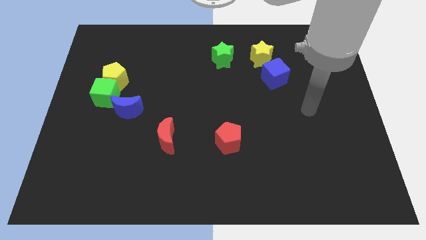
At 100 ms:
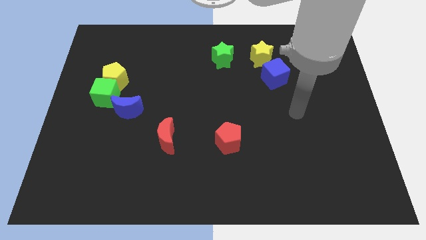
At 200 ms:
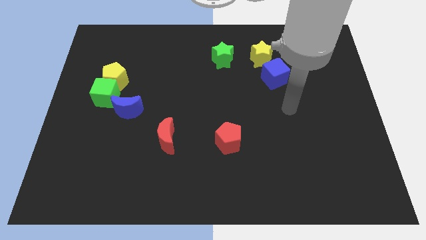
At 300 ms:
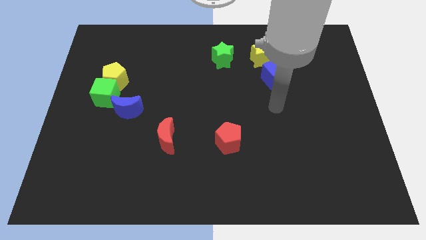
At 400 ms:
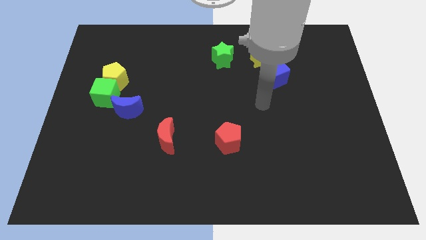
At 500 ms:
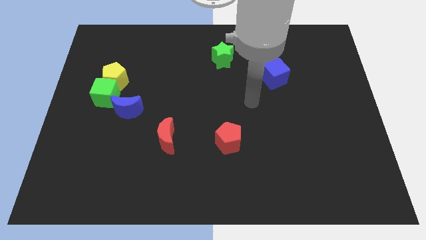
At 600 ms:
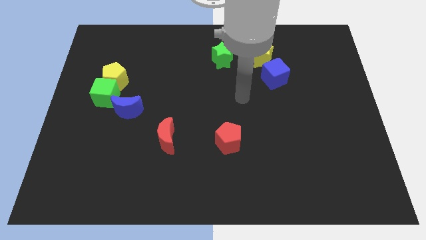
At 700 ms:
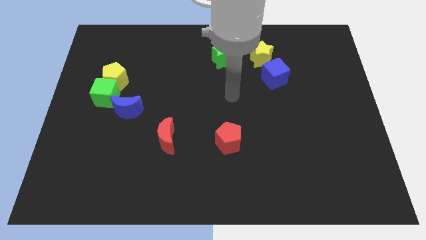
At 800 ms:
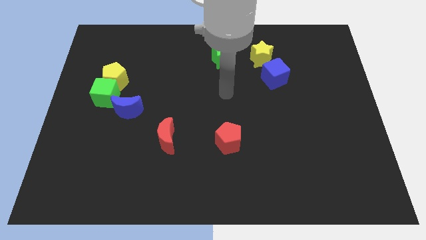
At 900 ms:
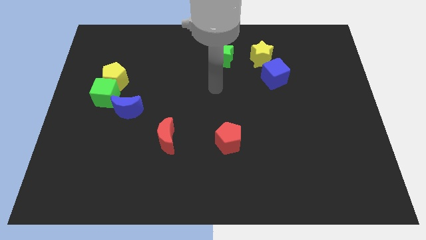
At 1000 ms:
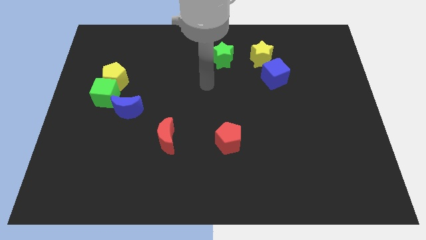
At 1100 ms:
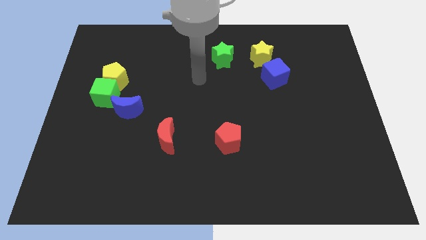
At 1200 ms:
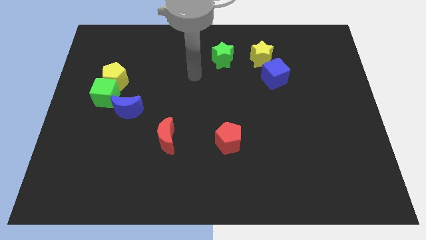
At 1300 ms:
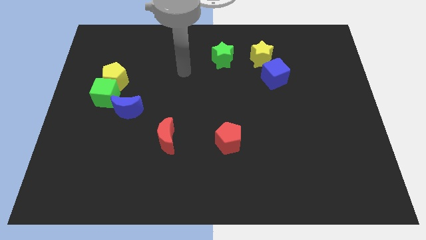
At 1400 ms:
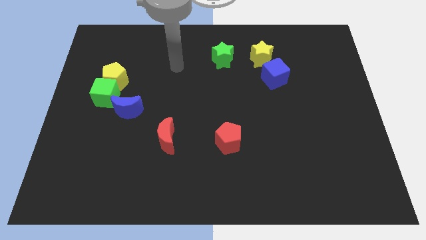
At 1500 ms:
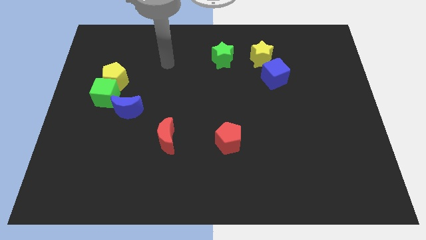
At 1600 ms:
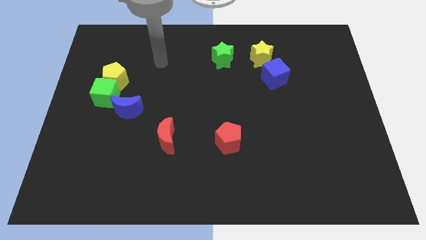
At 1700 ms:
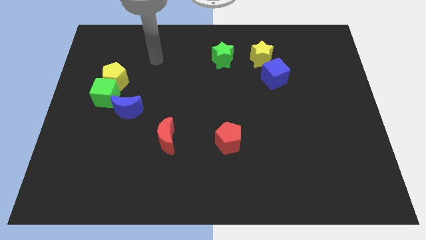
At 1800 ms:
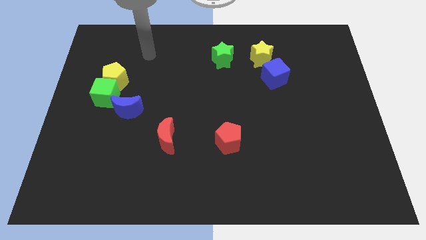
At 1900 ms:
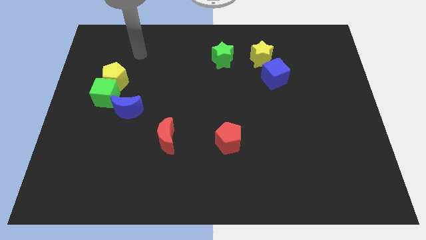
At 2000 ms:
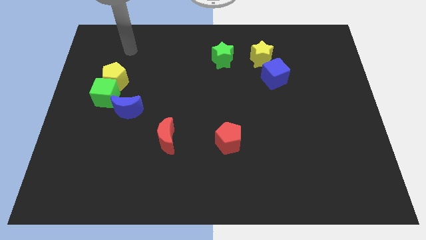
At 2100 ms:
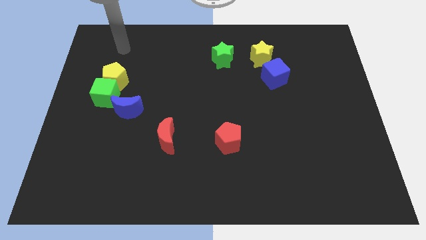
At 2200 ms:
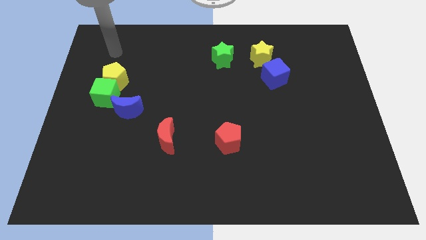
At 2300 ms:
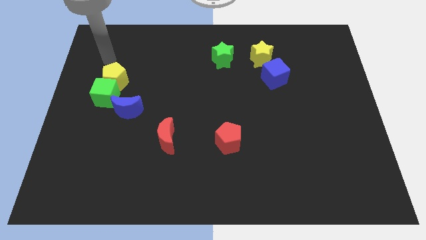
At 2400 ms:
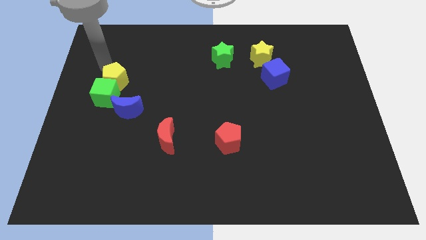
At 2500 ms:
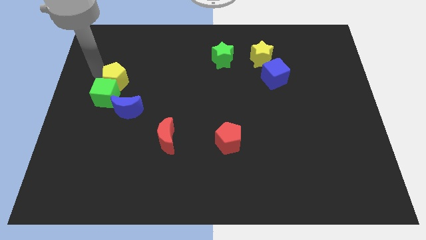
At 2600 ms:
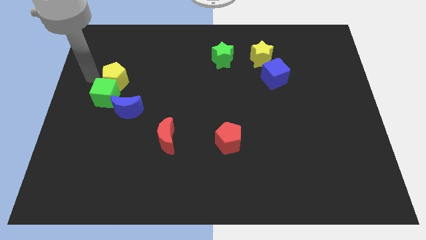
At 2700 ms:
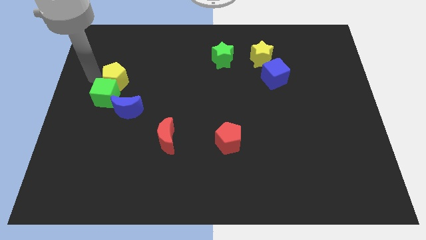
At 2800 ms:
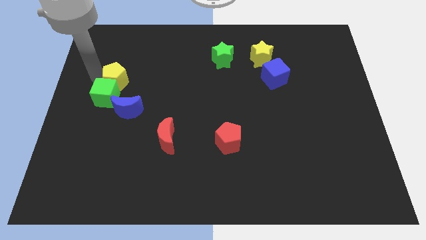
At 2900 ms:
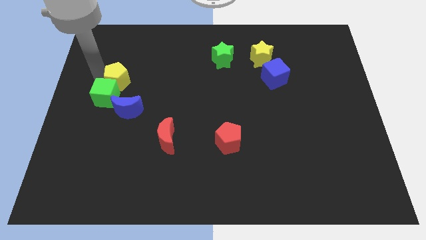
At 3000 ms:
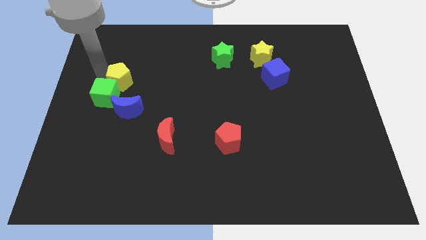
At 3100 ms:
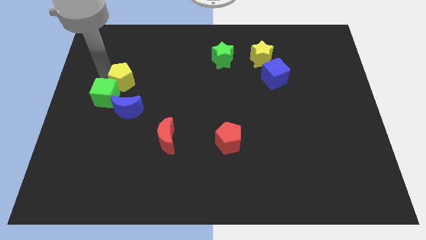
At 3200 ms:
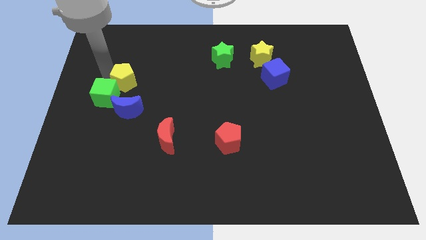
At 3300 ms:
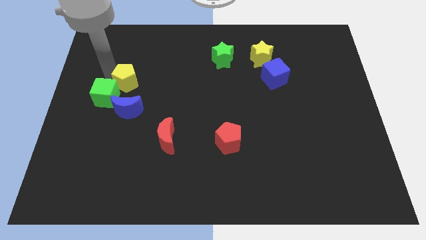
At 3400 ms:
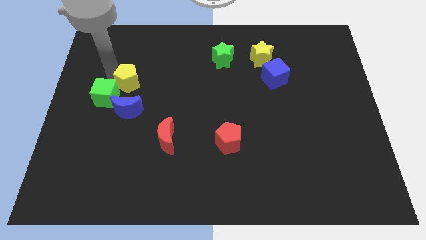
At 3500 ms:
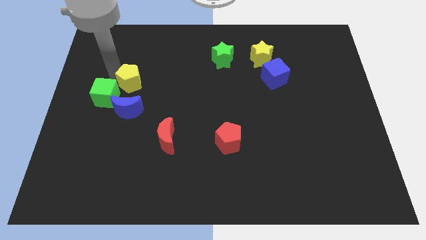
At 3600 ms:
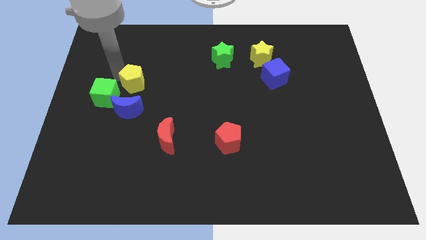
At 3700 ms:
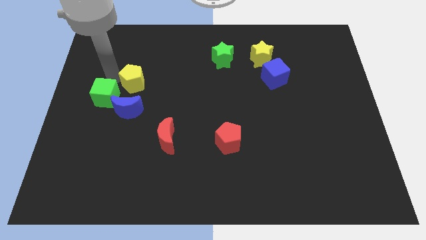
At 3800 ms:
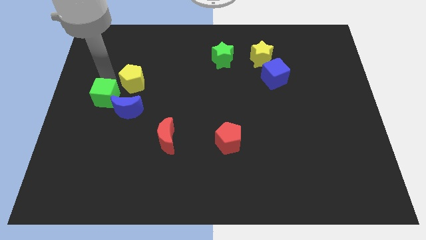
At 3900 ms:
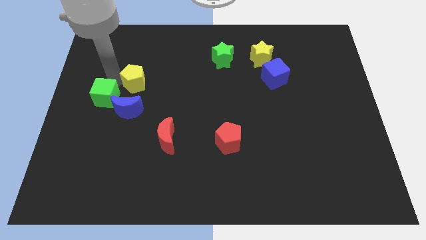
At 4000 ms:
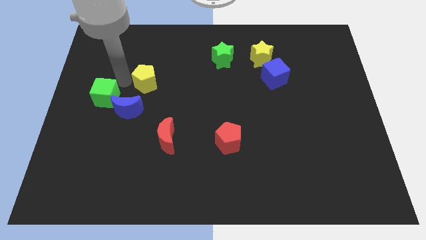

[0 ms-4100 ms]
slide the yellow pentagon somewhat right

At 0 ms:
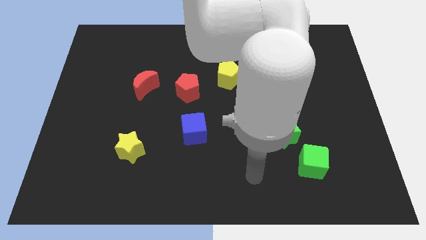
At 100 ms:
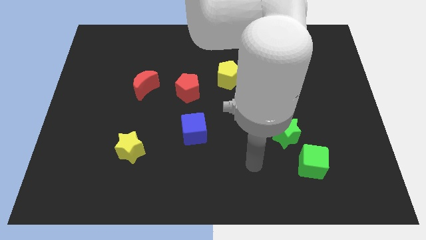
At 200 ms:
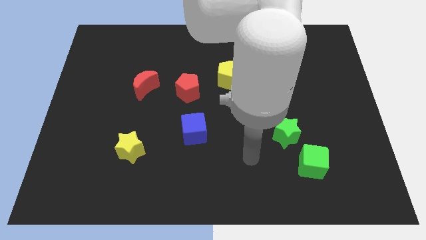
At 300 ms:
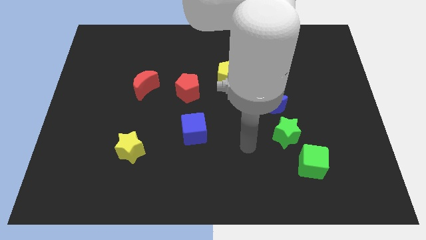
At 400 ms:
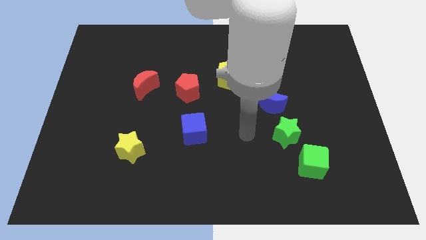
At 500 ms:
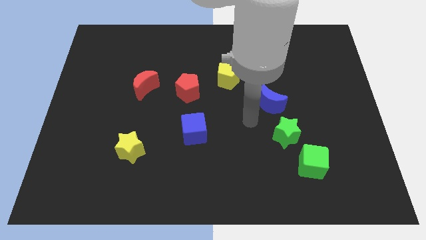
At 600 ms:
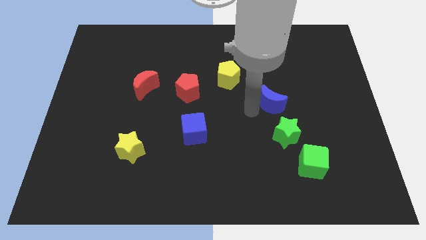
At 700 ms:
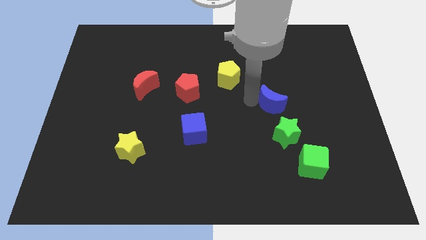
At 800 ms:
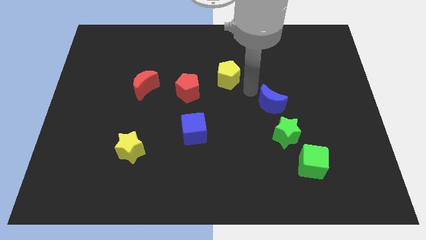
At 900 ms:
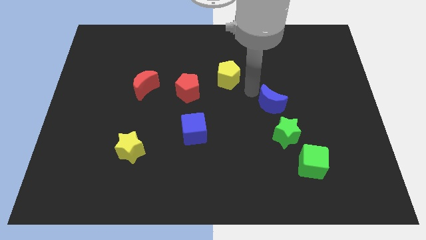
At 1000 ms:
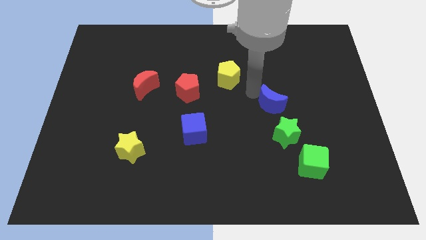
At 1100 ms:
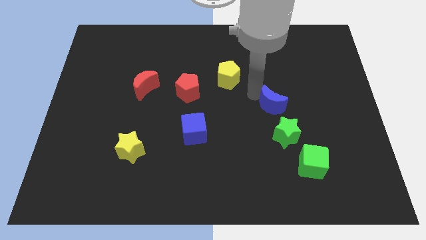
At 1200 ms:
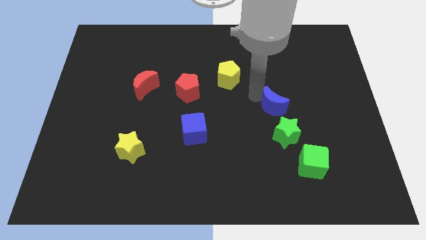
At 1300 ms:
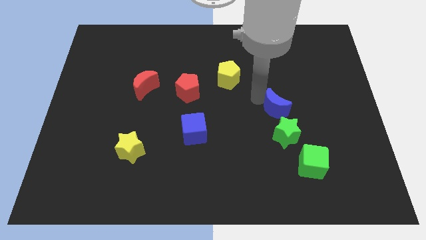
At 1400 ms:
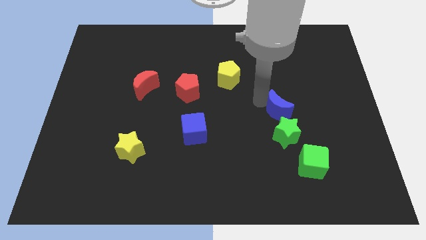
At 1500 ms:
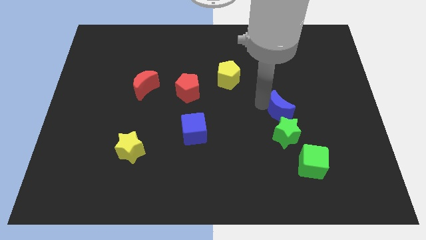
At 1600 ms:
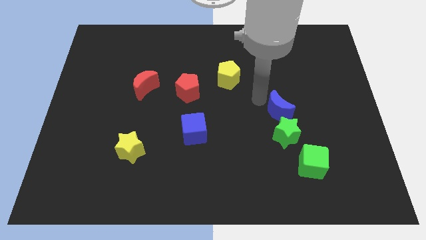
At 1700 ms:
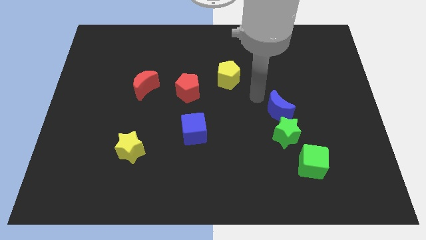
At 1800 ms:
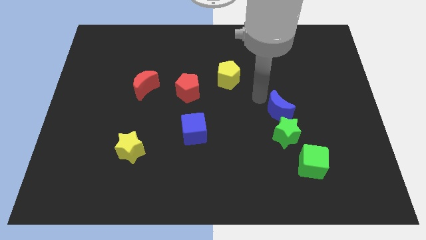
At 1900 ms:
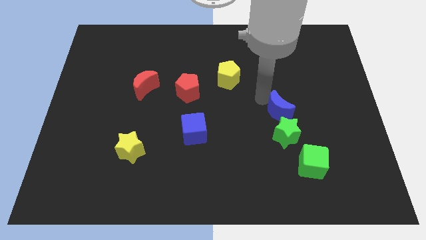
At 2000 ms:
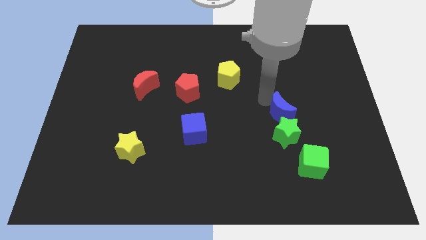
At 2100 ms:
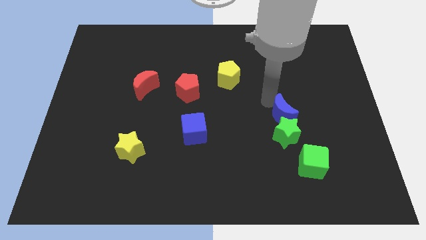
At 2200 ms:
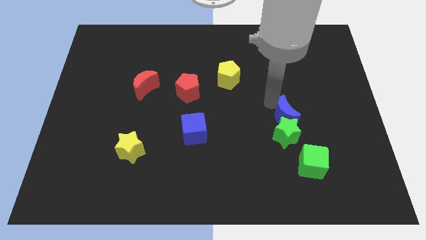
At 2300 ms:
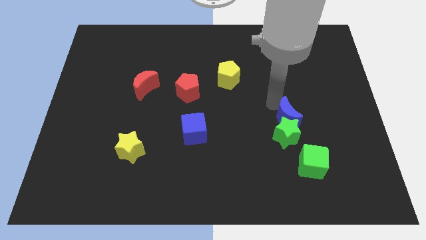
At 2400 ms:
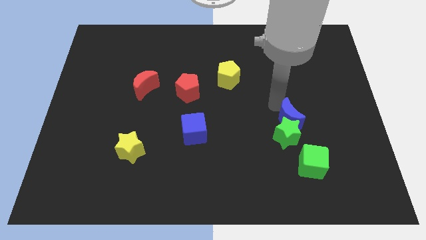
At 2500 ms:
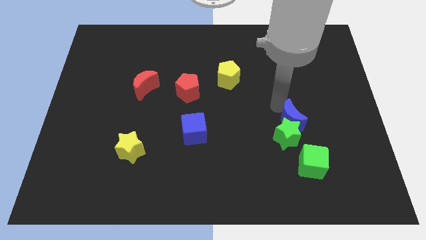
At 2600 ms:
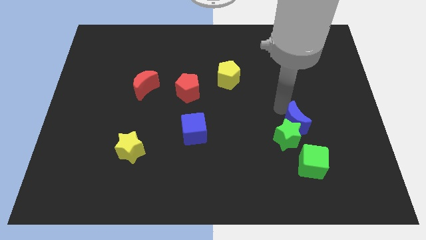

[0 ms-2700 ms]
slide the blue moon a little down and to the right

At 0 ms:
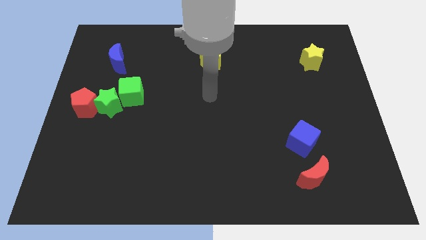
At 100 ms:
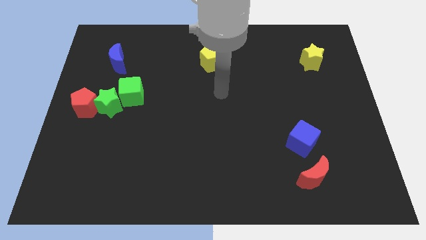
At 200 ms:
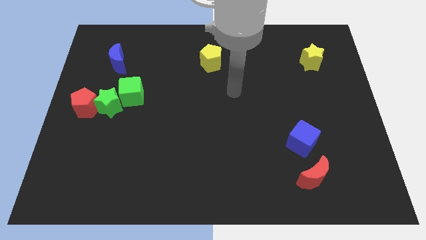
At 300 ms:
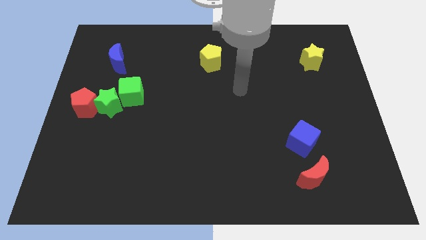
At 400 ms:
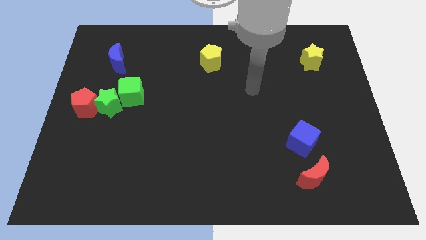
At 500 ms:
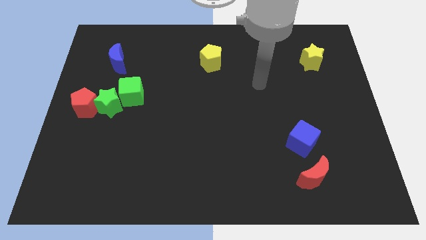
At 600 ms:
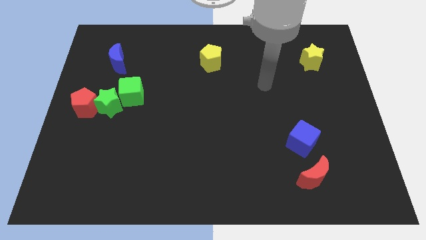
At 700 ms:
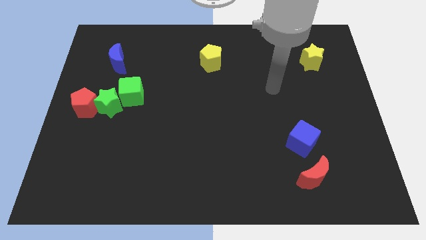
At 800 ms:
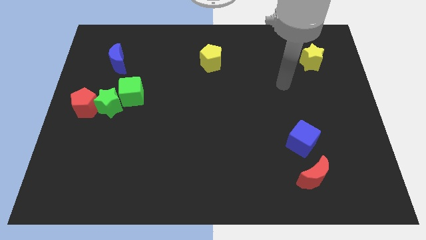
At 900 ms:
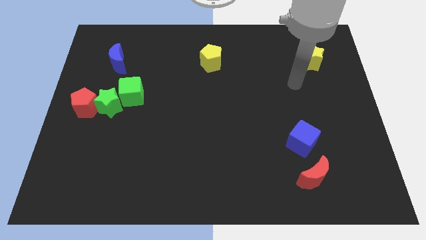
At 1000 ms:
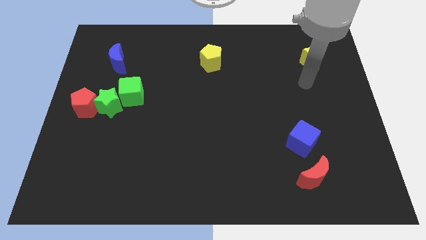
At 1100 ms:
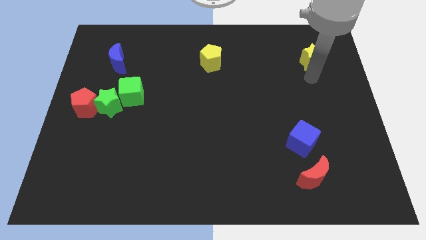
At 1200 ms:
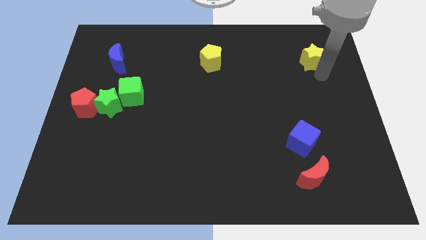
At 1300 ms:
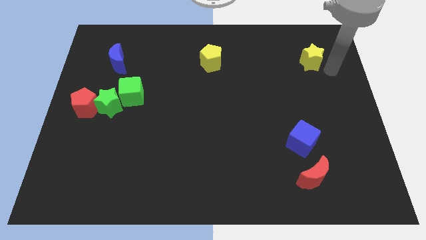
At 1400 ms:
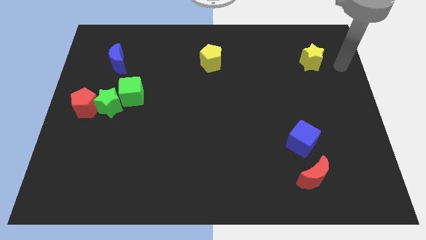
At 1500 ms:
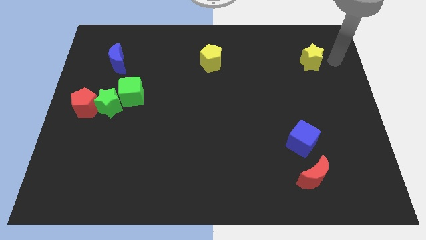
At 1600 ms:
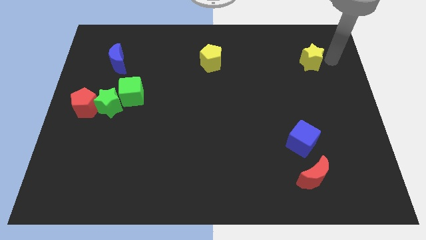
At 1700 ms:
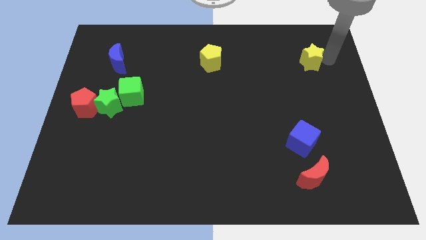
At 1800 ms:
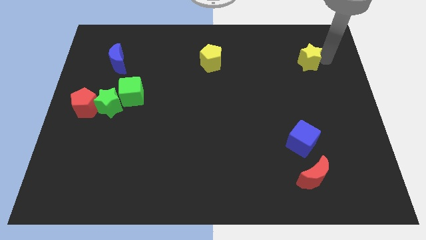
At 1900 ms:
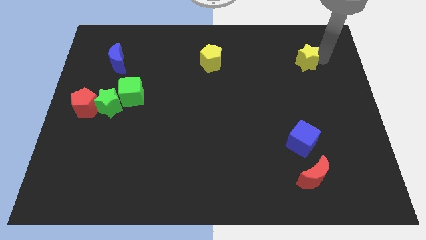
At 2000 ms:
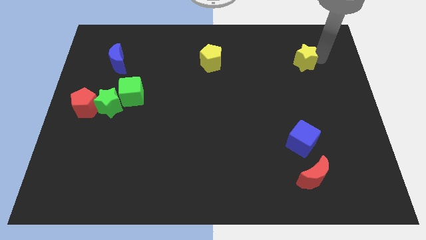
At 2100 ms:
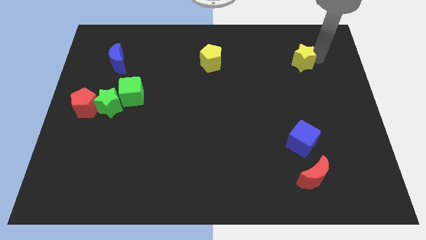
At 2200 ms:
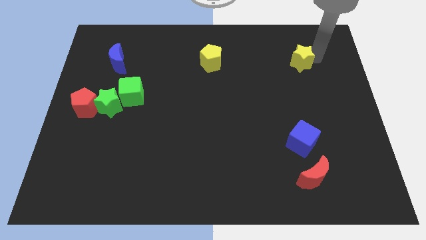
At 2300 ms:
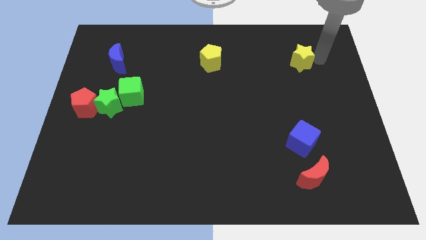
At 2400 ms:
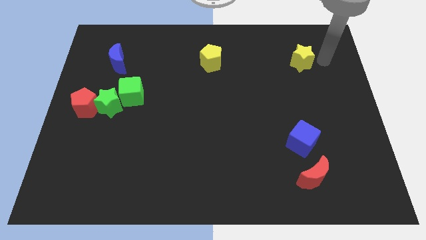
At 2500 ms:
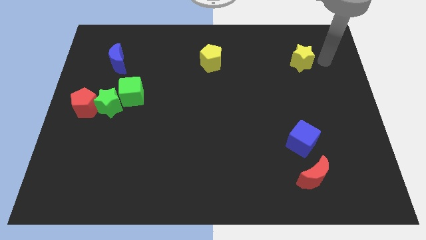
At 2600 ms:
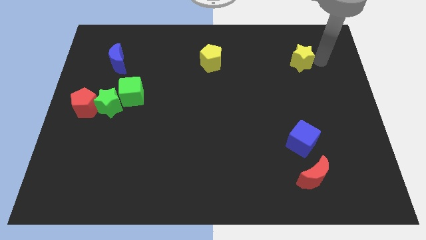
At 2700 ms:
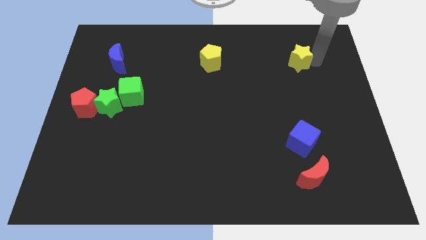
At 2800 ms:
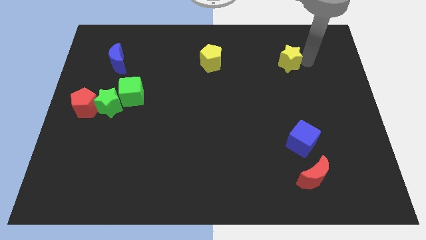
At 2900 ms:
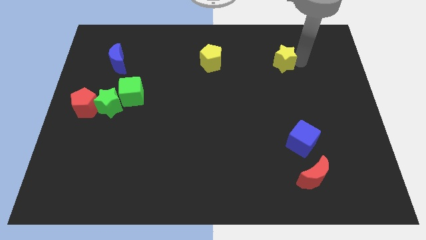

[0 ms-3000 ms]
slightly move the yellow star left
